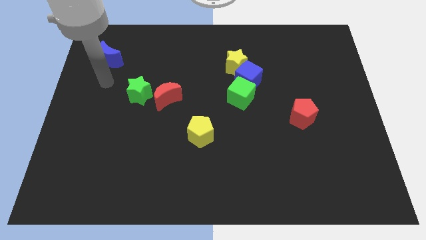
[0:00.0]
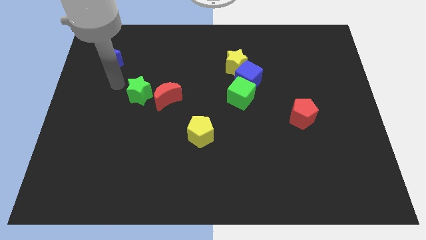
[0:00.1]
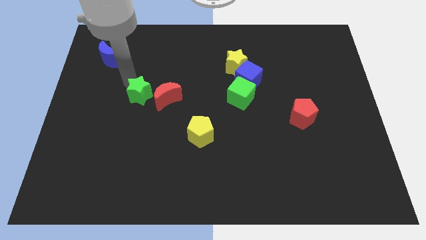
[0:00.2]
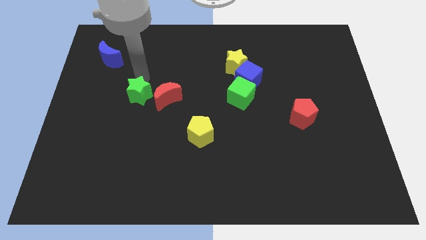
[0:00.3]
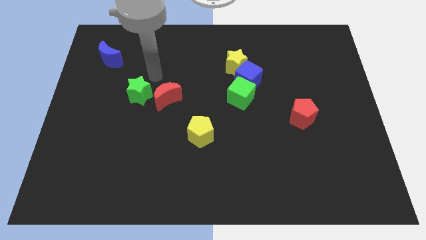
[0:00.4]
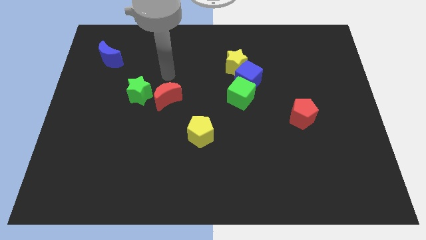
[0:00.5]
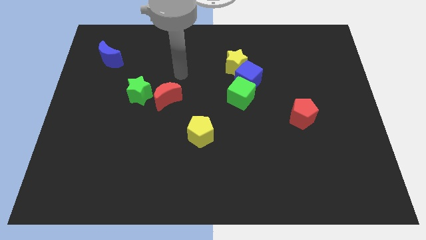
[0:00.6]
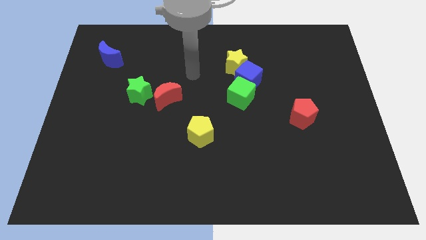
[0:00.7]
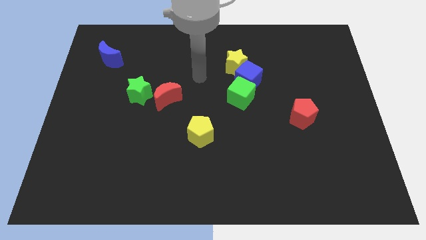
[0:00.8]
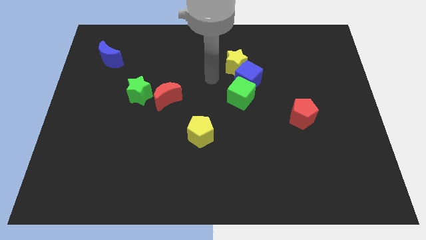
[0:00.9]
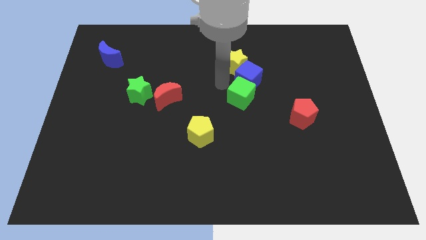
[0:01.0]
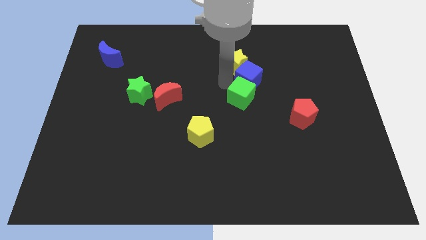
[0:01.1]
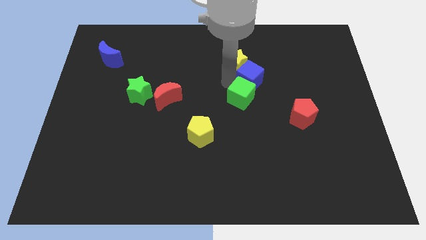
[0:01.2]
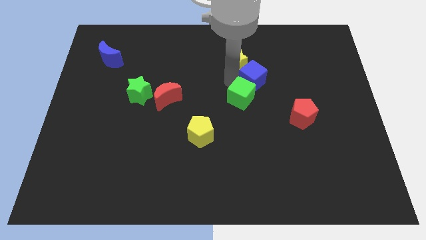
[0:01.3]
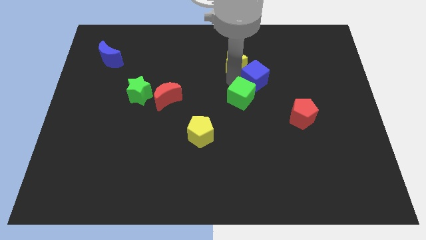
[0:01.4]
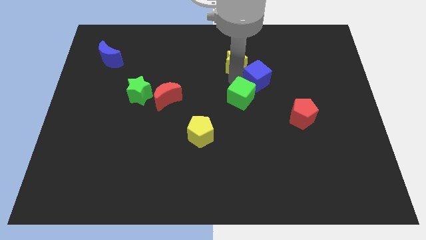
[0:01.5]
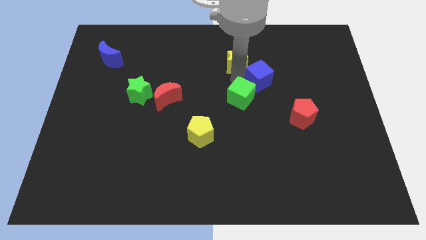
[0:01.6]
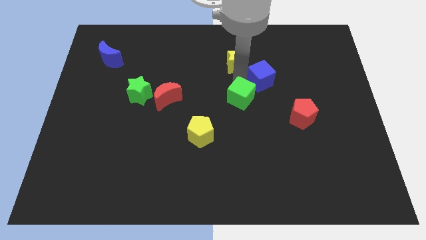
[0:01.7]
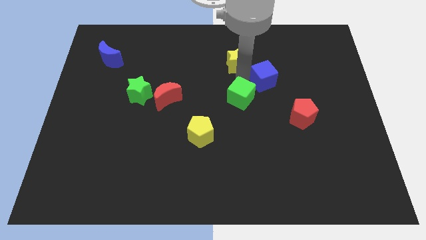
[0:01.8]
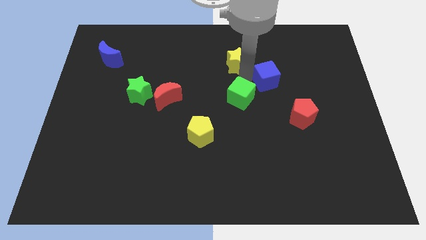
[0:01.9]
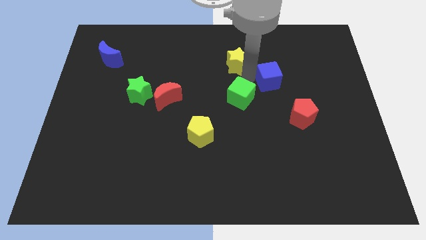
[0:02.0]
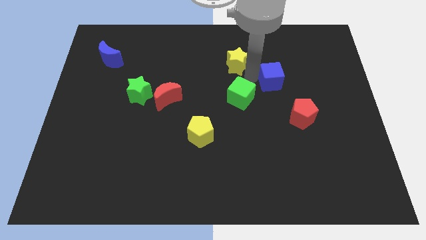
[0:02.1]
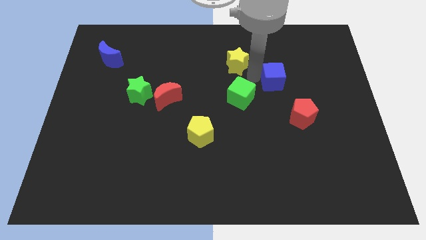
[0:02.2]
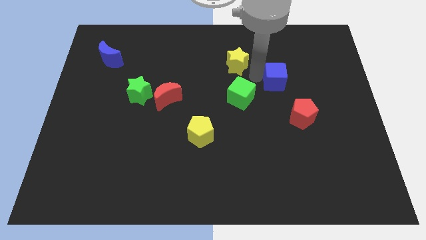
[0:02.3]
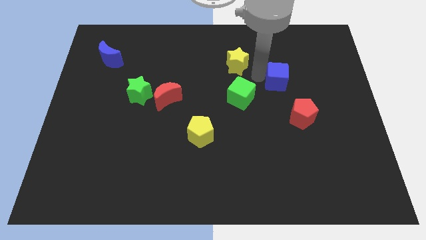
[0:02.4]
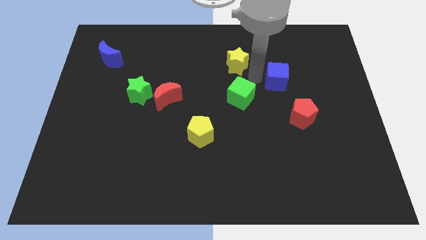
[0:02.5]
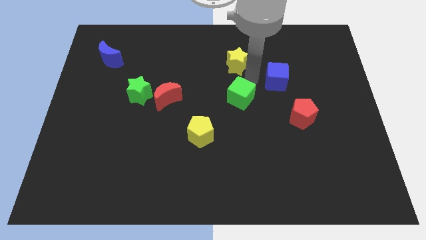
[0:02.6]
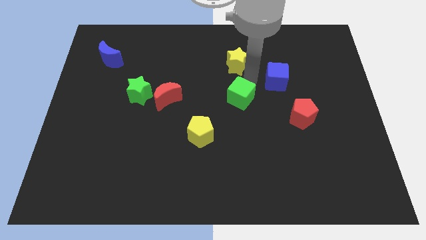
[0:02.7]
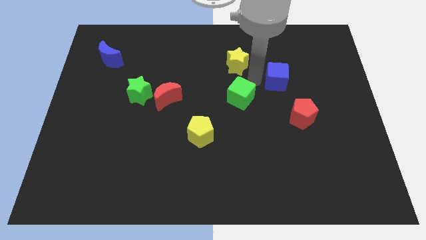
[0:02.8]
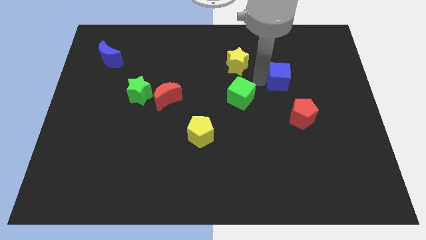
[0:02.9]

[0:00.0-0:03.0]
move the blue cube away from the yellow star and green cube

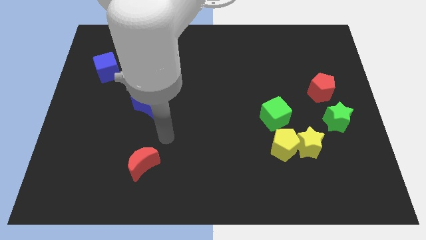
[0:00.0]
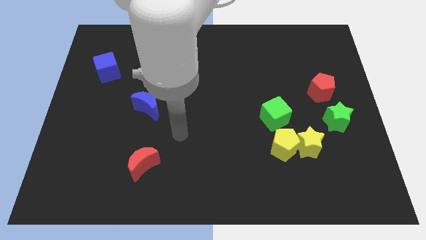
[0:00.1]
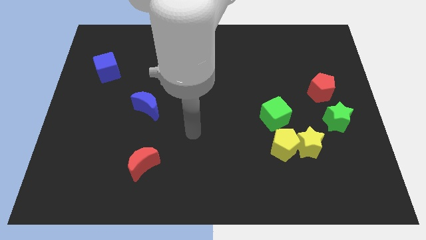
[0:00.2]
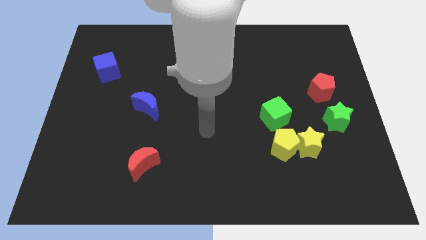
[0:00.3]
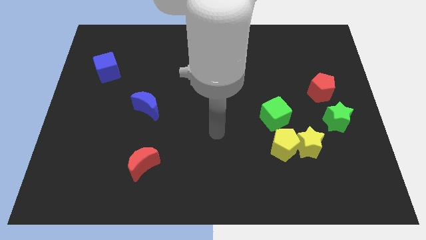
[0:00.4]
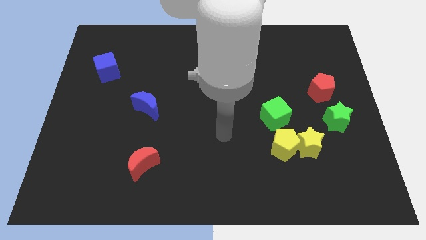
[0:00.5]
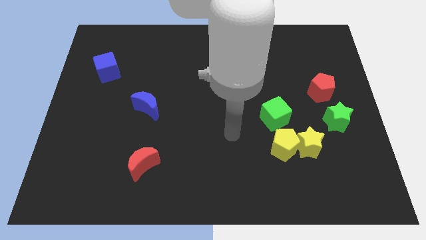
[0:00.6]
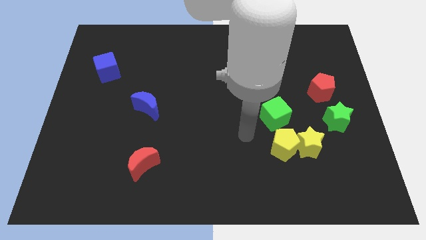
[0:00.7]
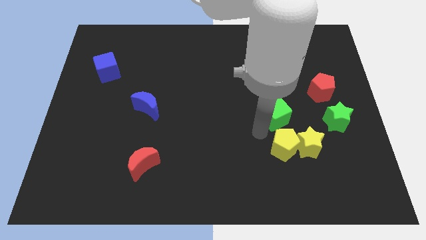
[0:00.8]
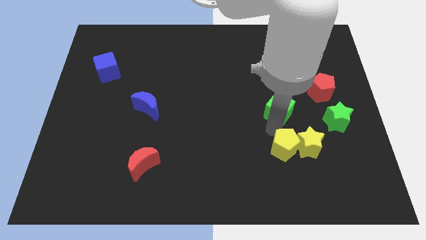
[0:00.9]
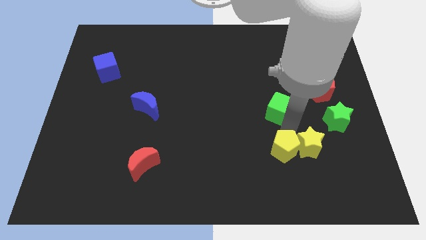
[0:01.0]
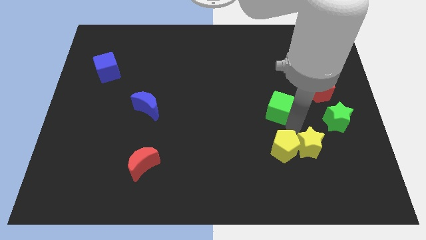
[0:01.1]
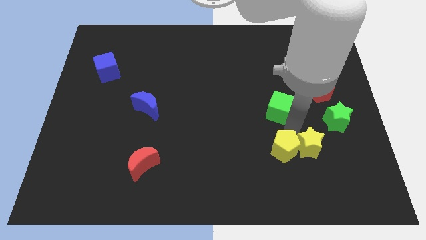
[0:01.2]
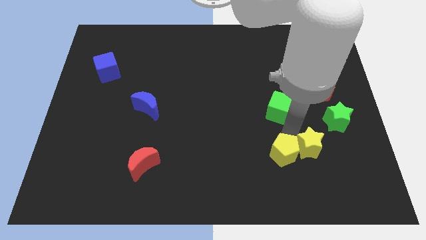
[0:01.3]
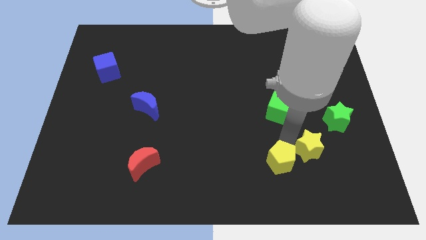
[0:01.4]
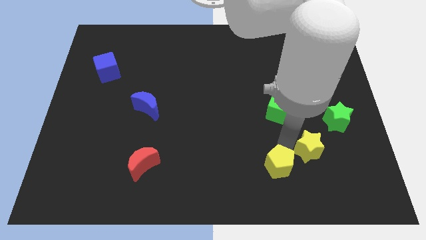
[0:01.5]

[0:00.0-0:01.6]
pull the yellow pentagon apart from the yellow star and green cube

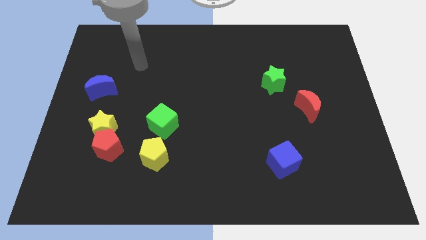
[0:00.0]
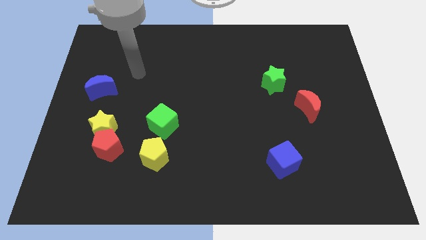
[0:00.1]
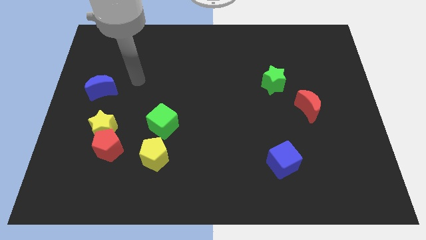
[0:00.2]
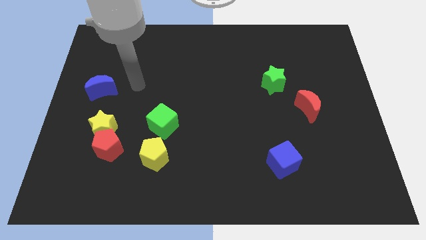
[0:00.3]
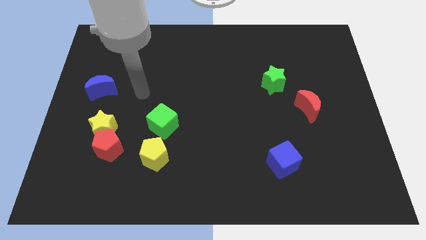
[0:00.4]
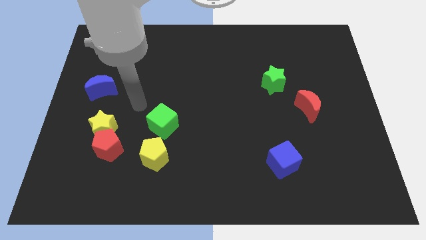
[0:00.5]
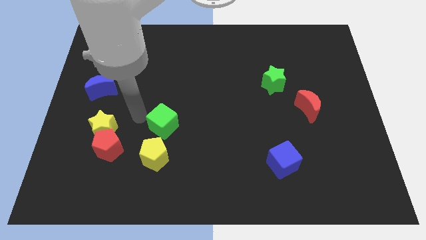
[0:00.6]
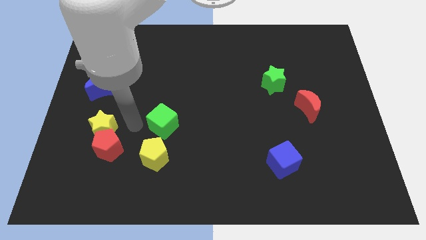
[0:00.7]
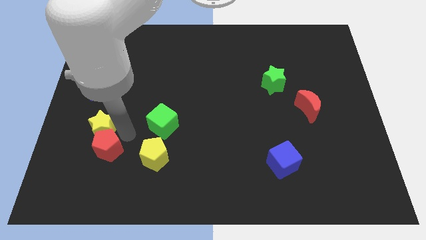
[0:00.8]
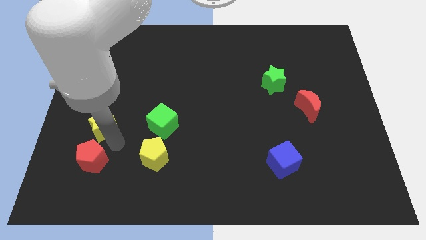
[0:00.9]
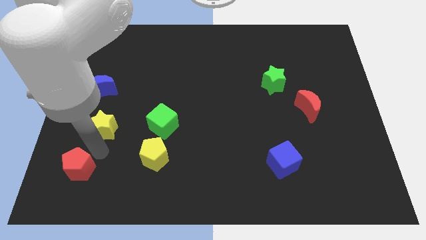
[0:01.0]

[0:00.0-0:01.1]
move the yellow star away from the red pentagon

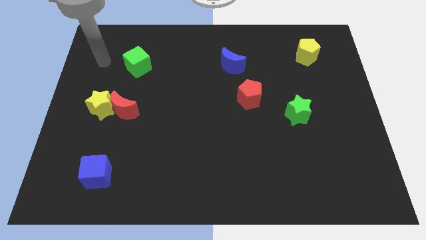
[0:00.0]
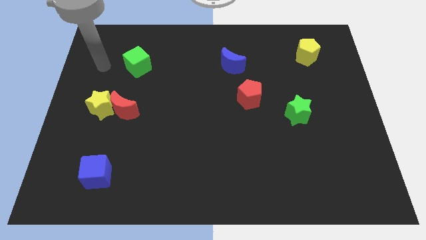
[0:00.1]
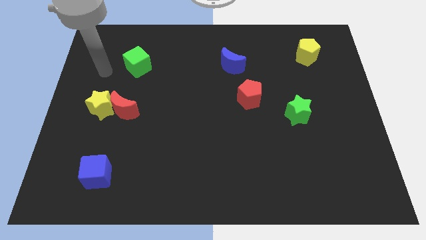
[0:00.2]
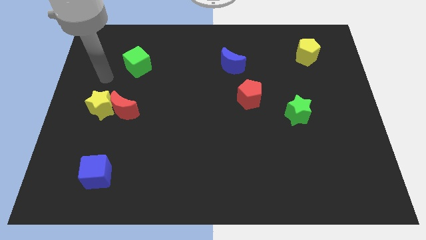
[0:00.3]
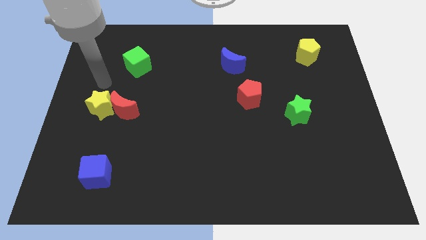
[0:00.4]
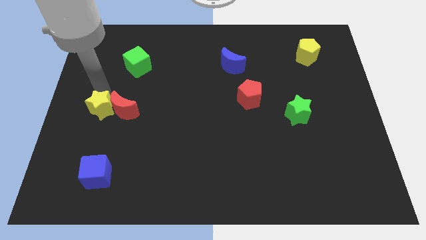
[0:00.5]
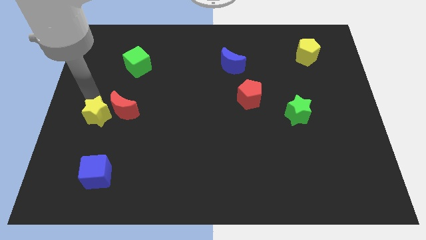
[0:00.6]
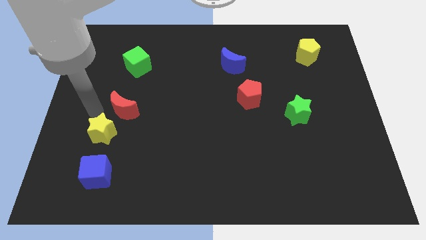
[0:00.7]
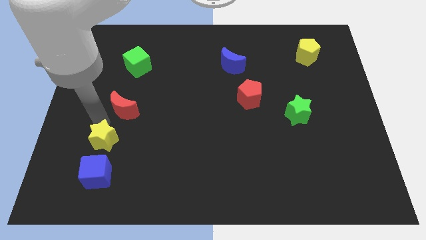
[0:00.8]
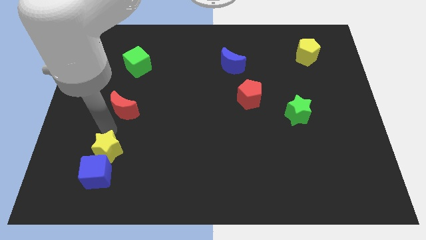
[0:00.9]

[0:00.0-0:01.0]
separate the red moon from the yellow star

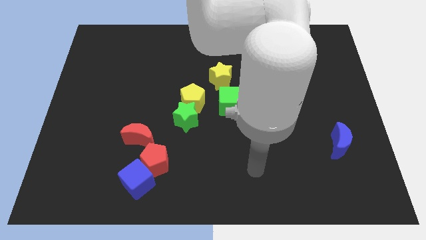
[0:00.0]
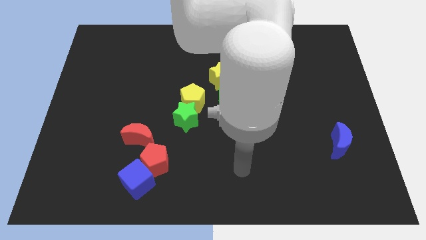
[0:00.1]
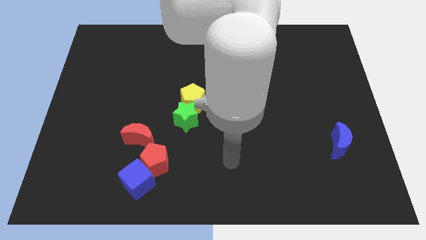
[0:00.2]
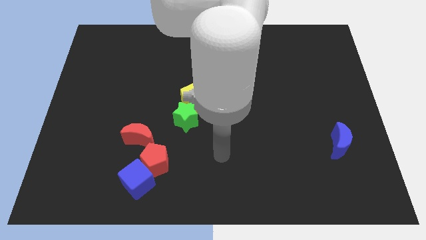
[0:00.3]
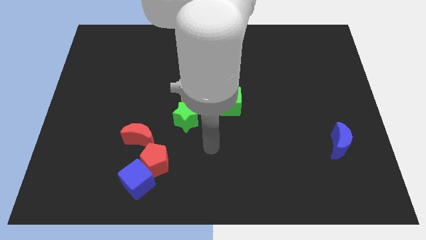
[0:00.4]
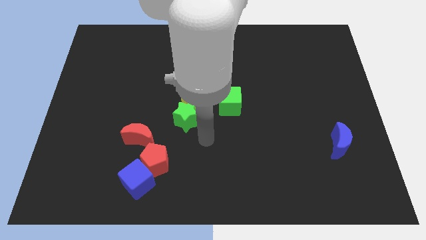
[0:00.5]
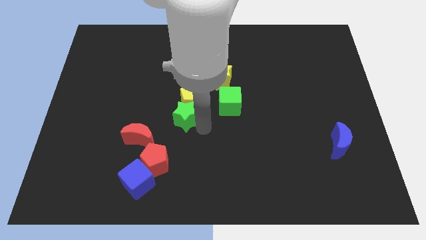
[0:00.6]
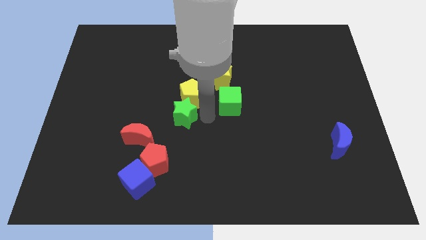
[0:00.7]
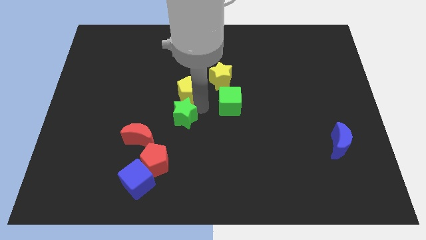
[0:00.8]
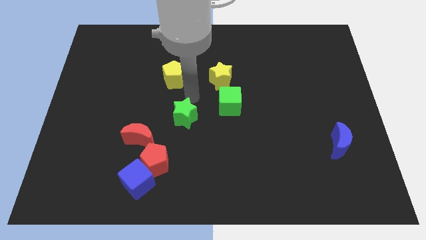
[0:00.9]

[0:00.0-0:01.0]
move the green star away from the yellow pentagon

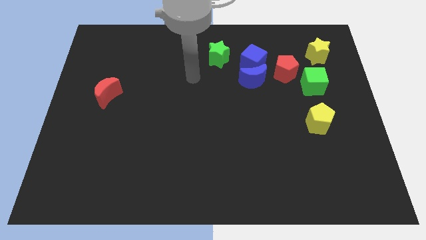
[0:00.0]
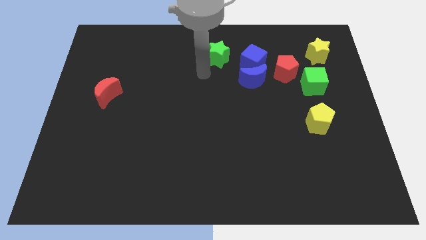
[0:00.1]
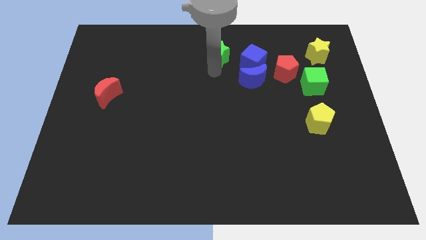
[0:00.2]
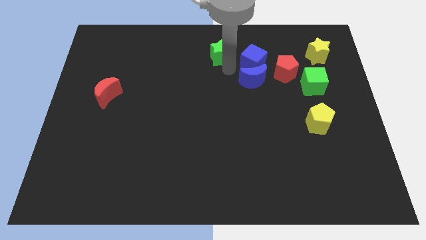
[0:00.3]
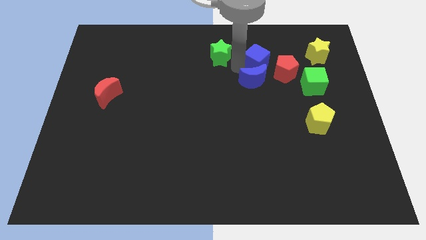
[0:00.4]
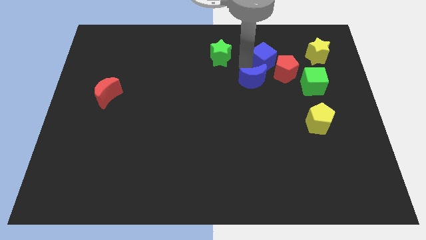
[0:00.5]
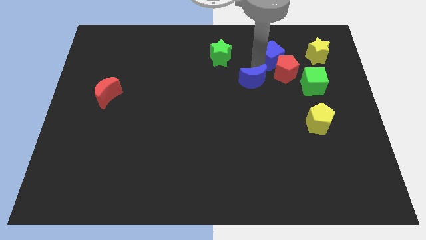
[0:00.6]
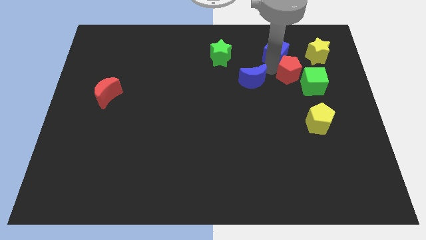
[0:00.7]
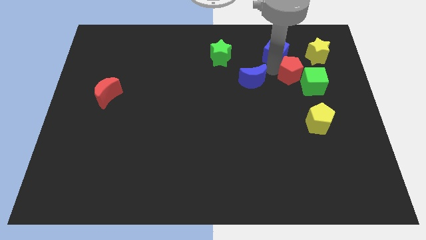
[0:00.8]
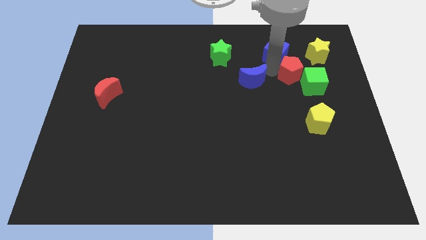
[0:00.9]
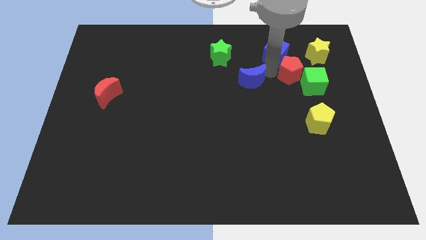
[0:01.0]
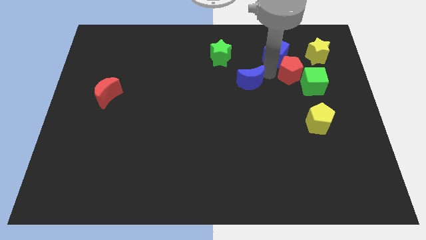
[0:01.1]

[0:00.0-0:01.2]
move the blue moon away from the blue cube and red pentagon

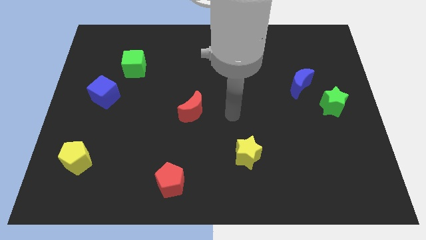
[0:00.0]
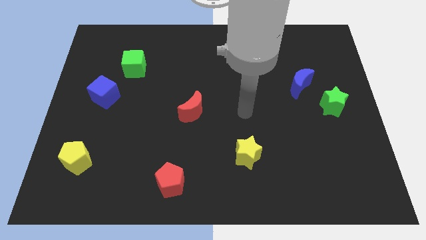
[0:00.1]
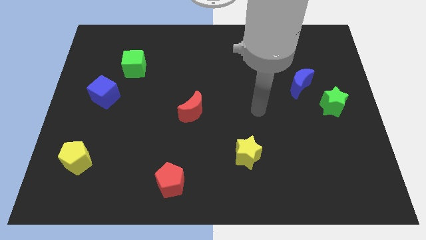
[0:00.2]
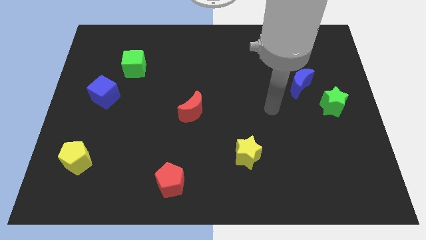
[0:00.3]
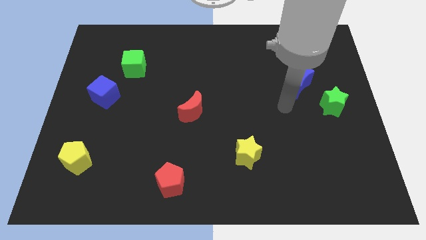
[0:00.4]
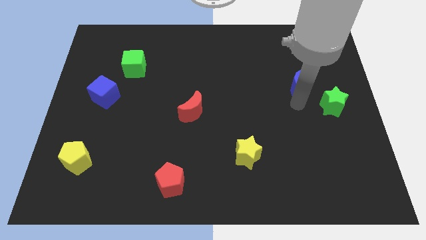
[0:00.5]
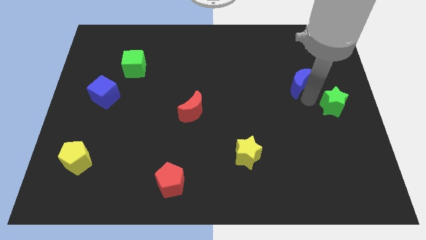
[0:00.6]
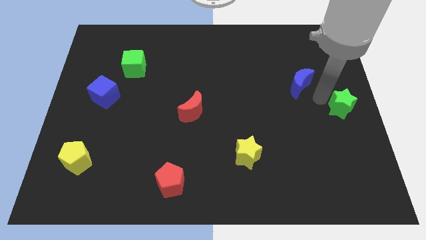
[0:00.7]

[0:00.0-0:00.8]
separate the blue moon from the green star
